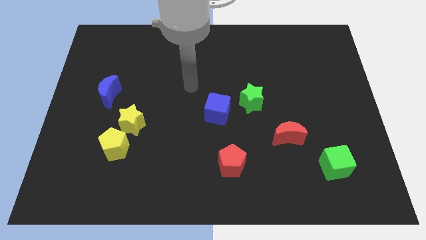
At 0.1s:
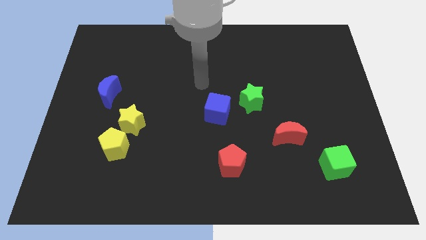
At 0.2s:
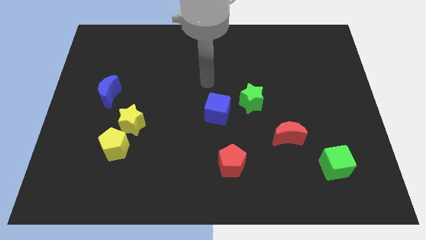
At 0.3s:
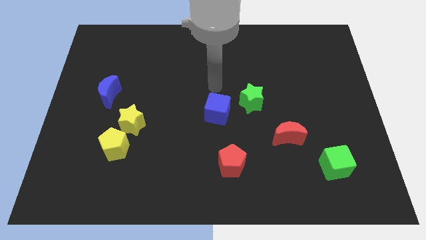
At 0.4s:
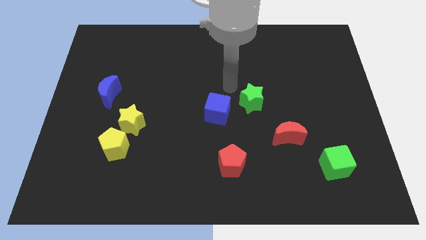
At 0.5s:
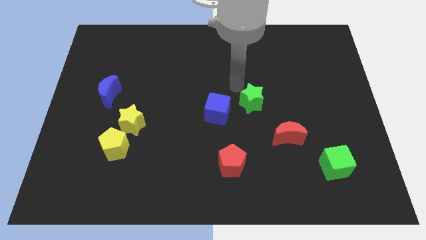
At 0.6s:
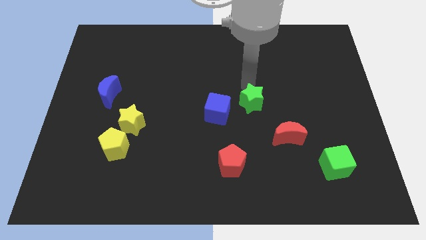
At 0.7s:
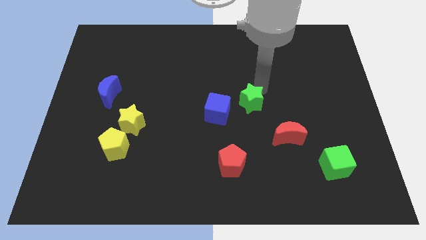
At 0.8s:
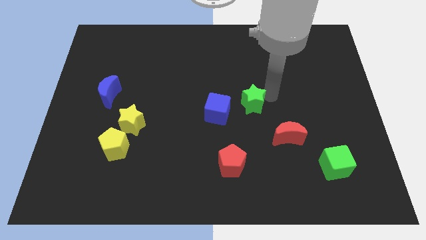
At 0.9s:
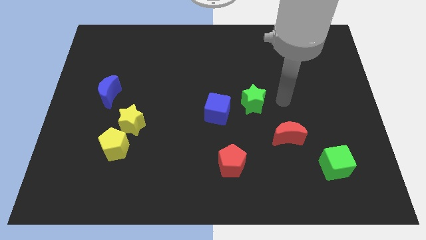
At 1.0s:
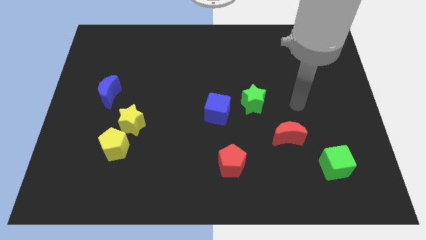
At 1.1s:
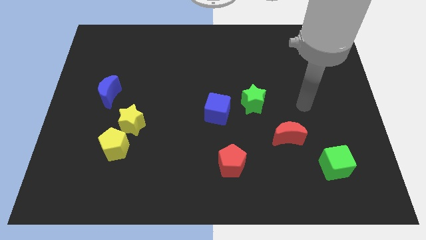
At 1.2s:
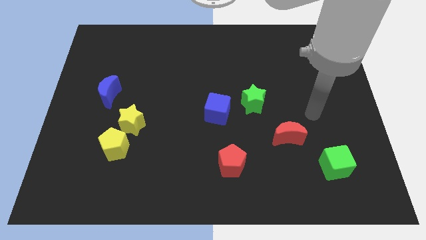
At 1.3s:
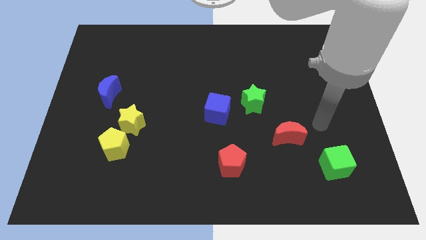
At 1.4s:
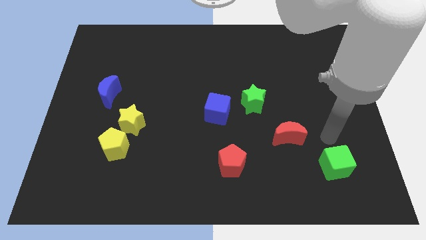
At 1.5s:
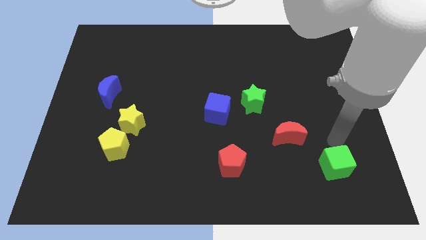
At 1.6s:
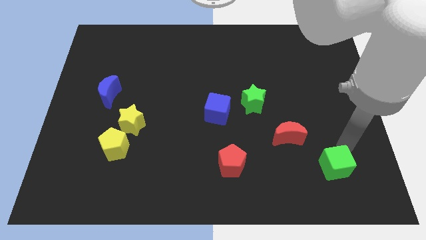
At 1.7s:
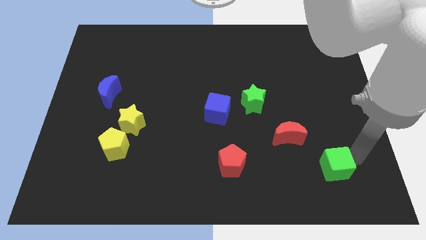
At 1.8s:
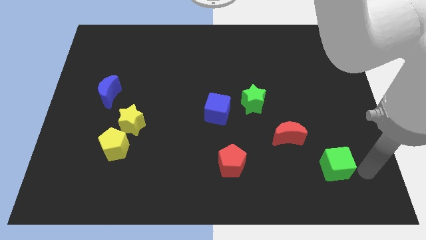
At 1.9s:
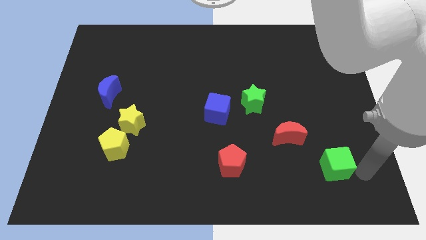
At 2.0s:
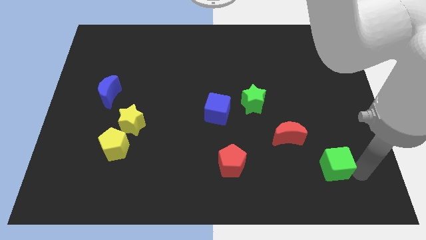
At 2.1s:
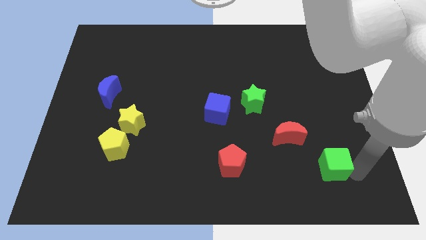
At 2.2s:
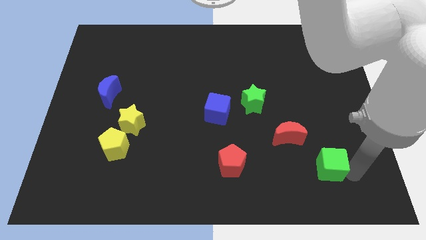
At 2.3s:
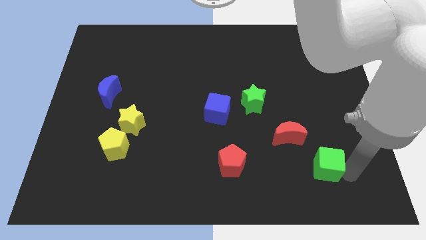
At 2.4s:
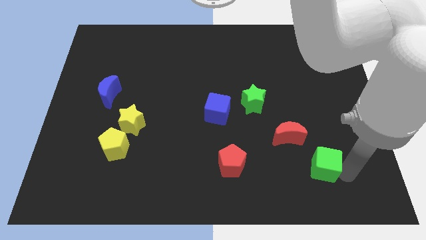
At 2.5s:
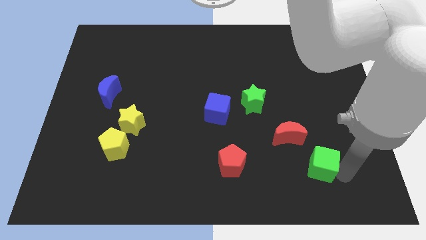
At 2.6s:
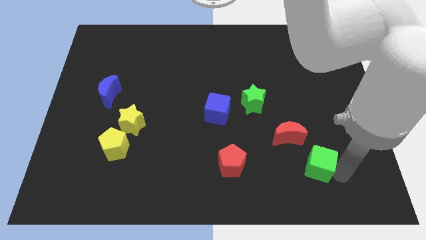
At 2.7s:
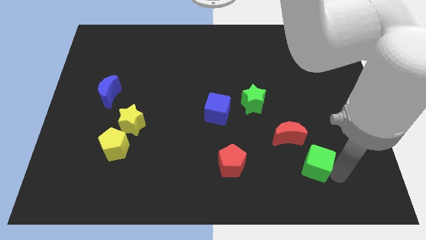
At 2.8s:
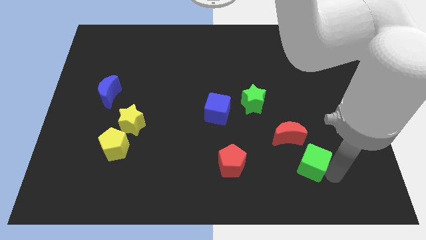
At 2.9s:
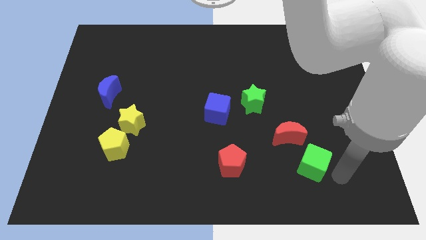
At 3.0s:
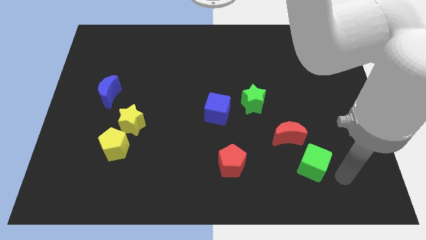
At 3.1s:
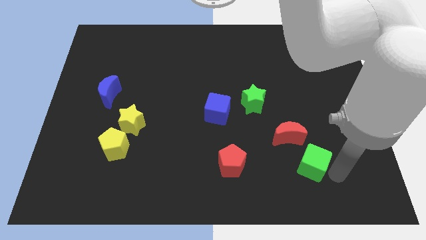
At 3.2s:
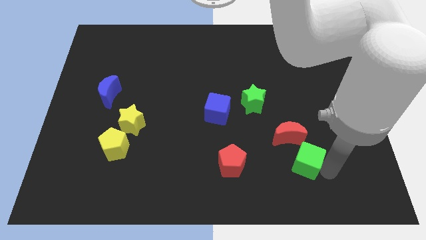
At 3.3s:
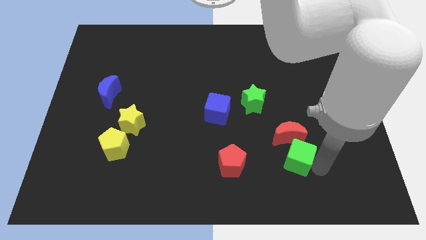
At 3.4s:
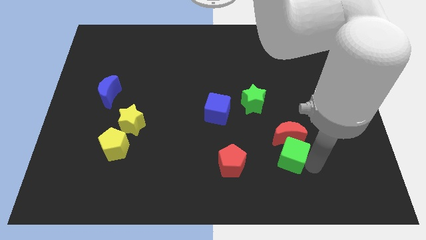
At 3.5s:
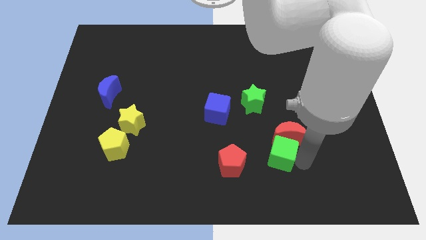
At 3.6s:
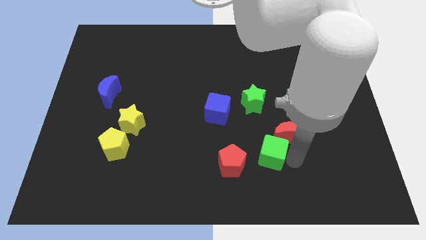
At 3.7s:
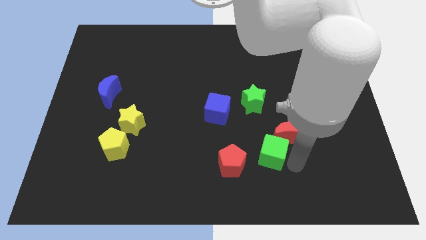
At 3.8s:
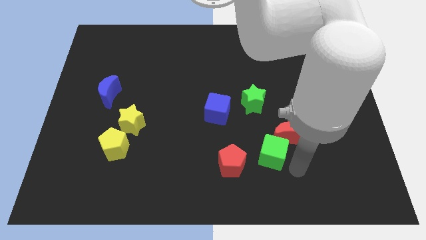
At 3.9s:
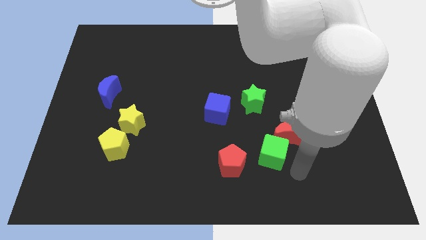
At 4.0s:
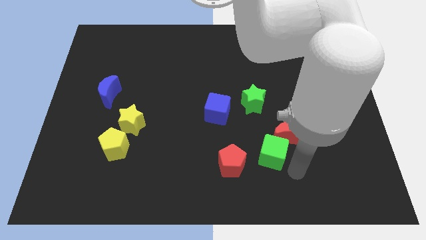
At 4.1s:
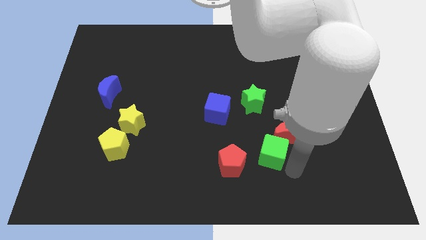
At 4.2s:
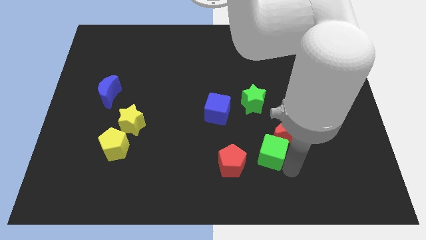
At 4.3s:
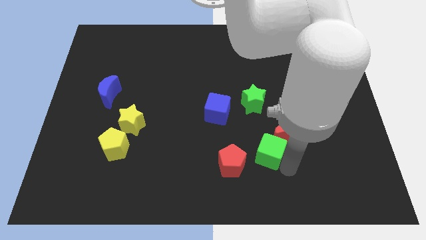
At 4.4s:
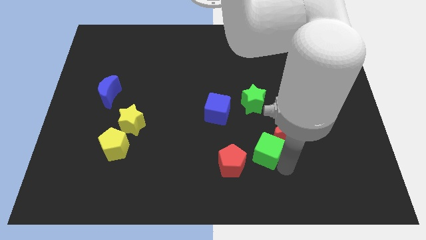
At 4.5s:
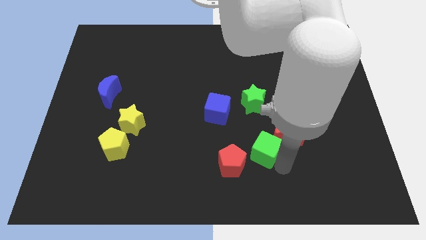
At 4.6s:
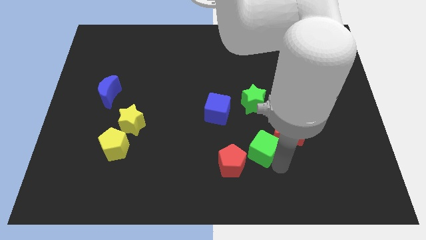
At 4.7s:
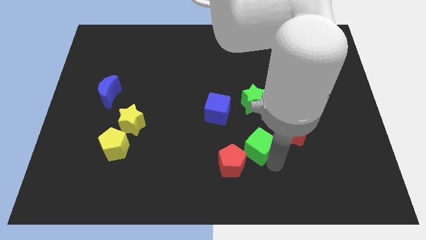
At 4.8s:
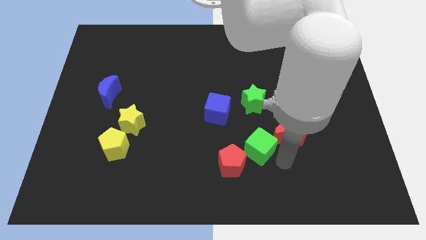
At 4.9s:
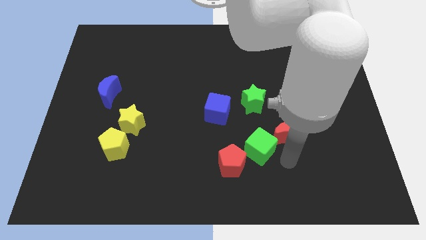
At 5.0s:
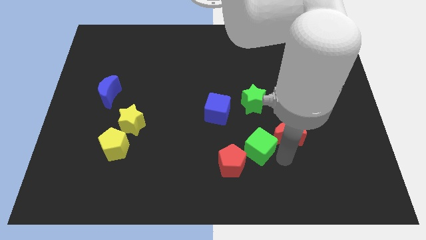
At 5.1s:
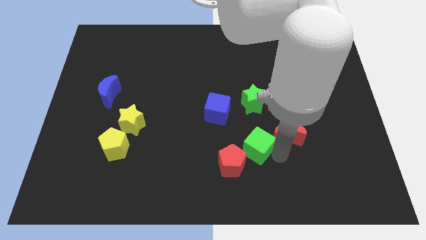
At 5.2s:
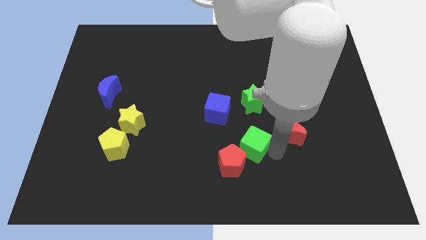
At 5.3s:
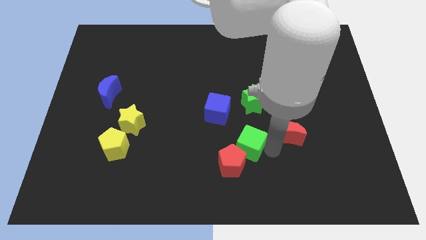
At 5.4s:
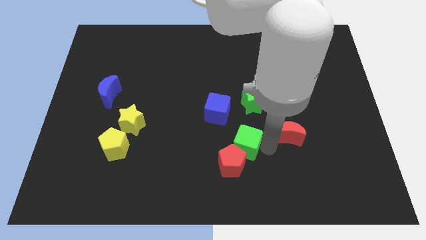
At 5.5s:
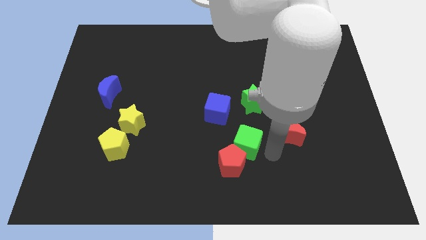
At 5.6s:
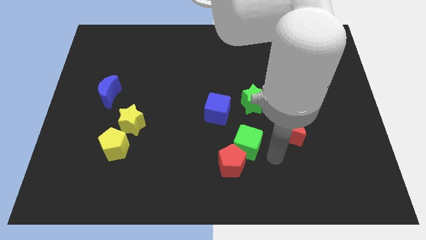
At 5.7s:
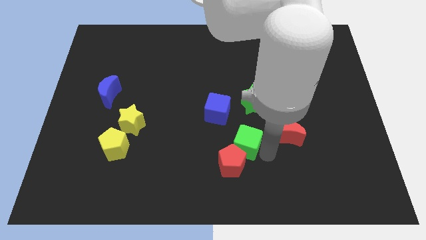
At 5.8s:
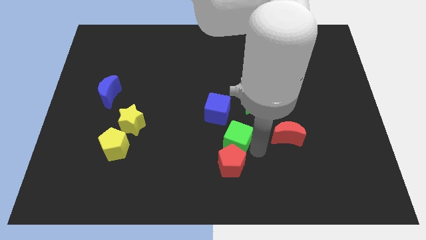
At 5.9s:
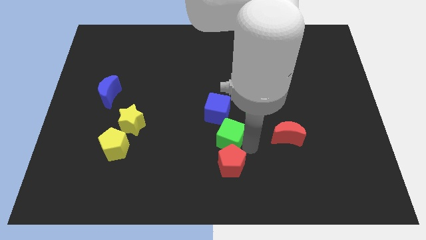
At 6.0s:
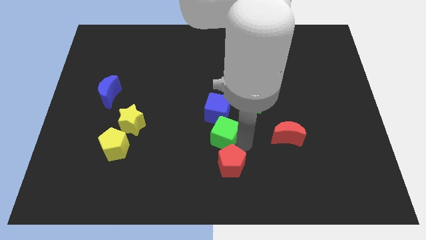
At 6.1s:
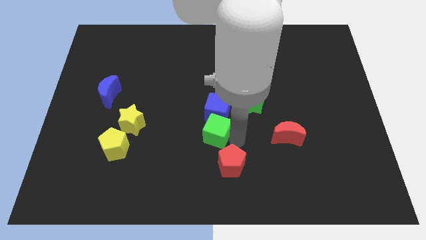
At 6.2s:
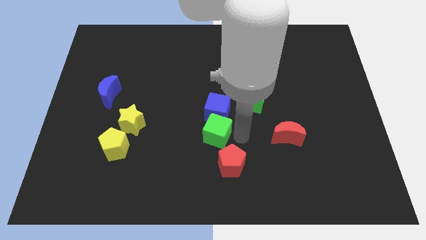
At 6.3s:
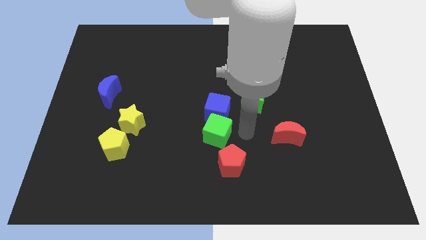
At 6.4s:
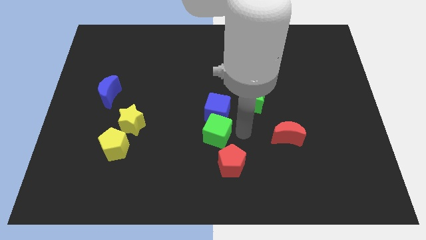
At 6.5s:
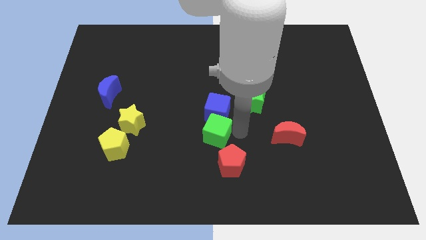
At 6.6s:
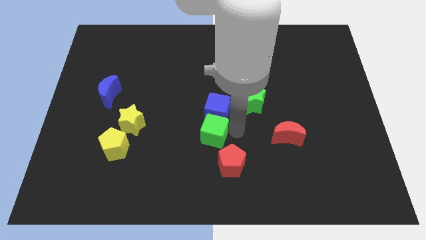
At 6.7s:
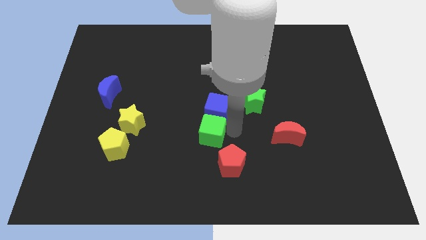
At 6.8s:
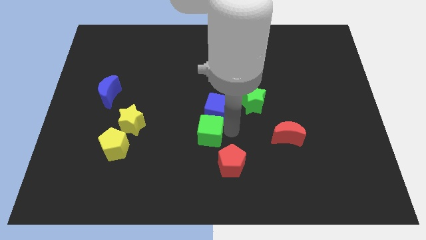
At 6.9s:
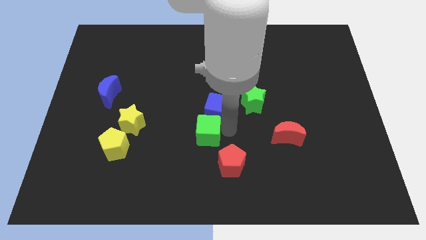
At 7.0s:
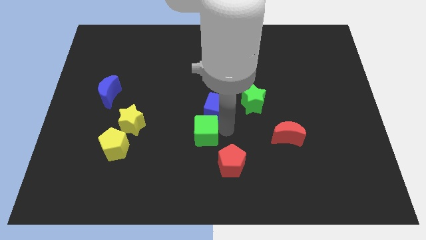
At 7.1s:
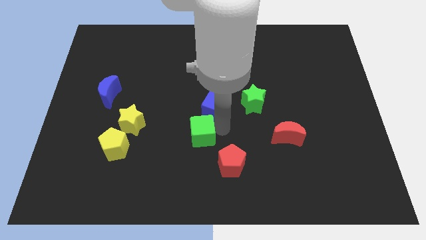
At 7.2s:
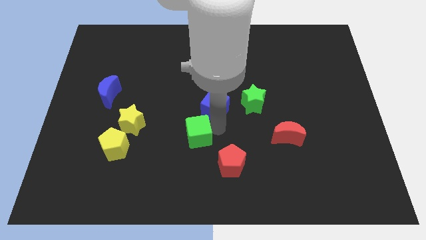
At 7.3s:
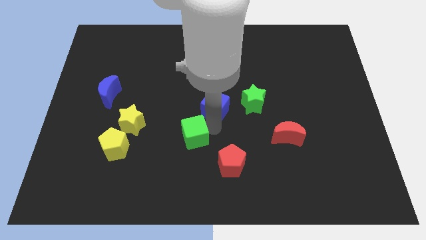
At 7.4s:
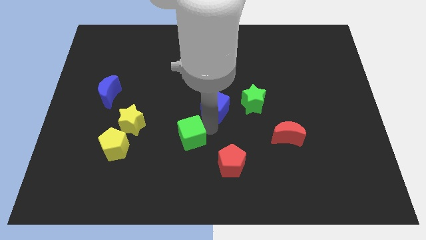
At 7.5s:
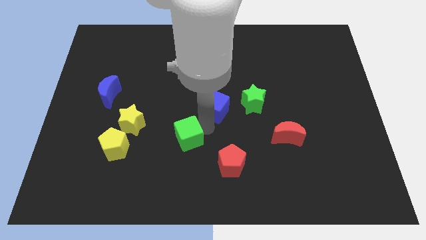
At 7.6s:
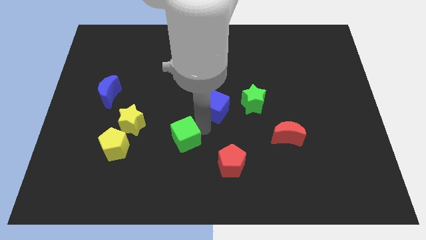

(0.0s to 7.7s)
put the green cube right of the yellow pentagon

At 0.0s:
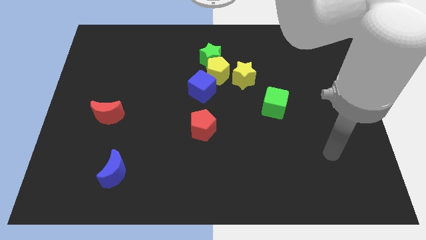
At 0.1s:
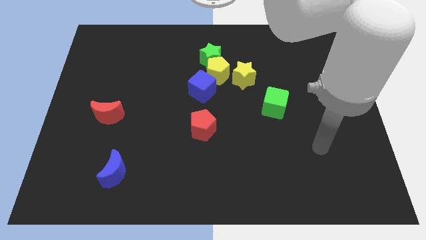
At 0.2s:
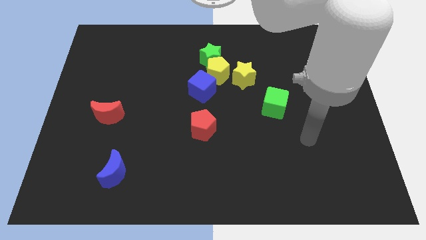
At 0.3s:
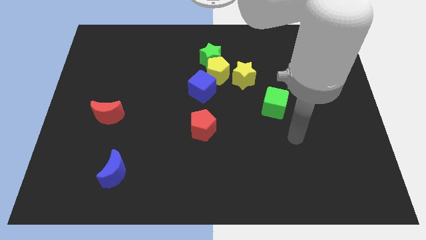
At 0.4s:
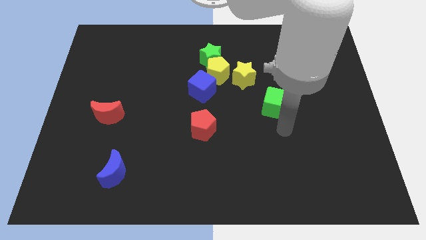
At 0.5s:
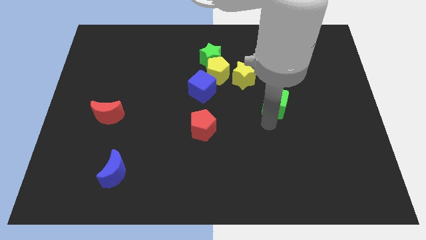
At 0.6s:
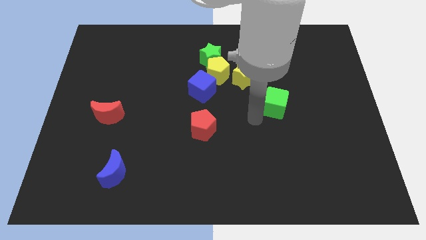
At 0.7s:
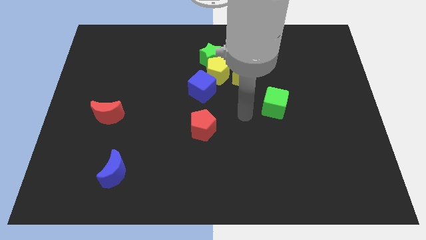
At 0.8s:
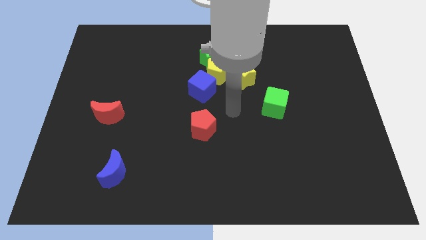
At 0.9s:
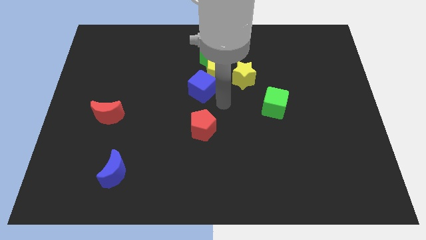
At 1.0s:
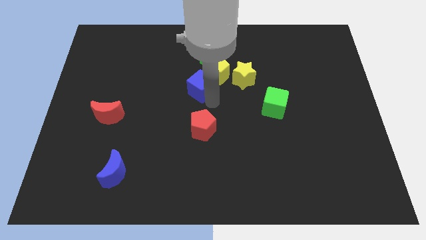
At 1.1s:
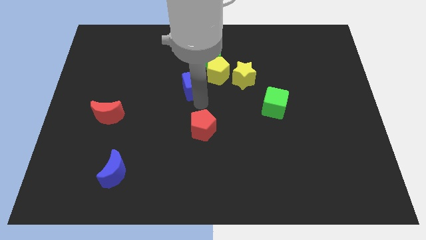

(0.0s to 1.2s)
slide the yellow pentagon right of the blue cube
